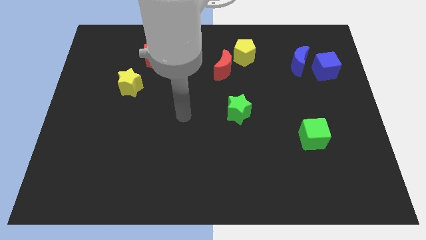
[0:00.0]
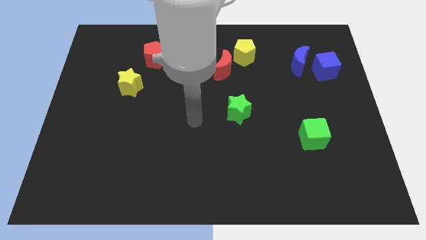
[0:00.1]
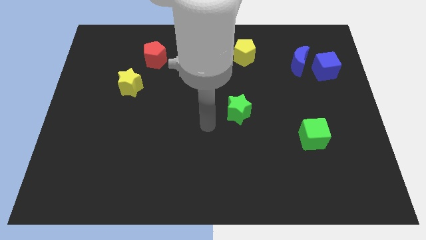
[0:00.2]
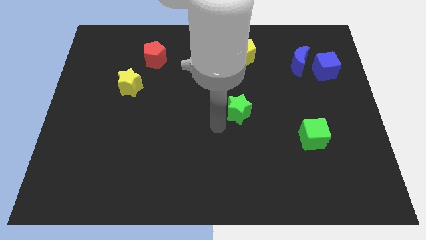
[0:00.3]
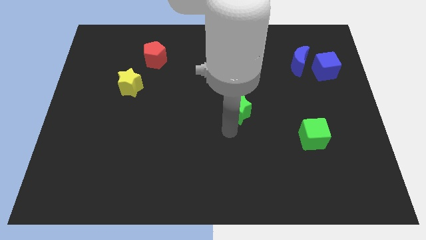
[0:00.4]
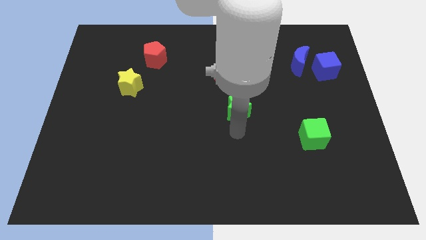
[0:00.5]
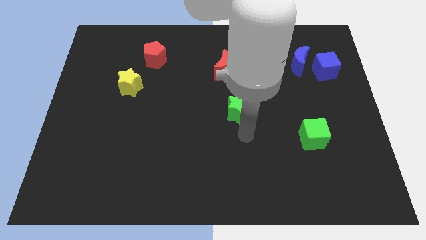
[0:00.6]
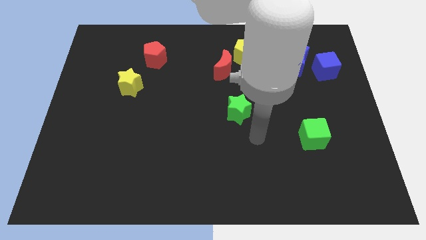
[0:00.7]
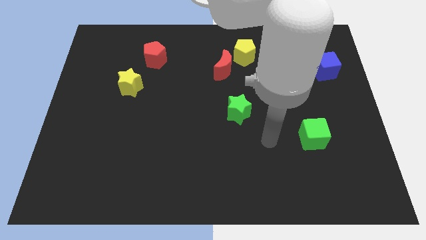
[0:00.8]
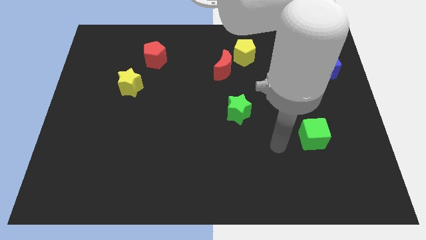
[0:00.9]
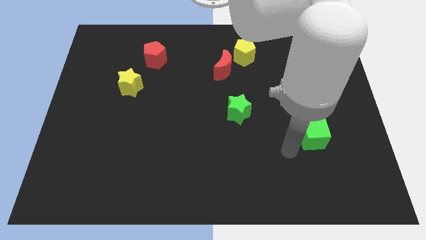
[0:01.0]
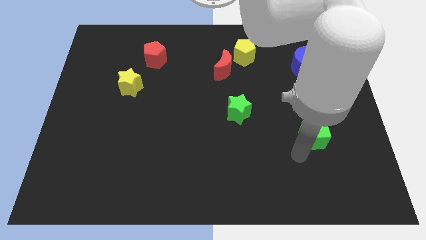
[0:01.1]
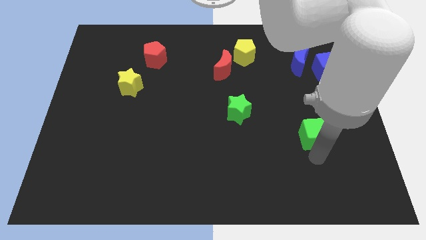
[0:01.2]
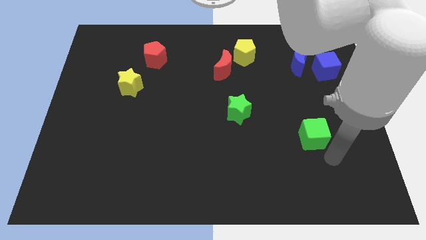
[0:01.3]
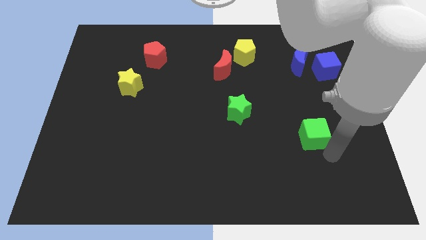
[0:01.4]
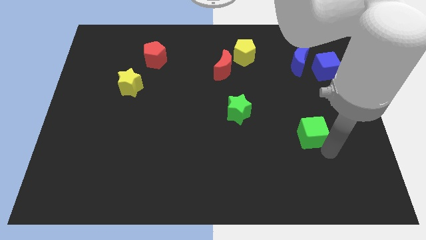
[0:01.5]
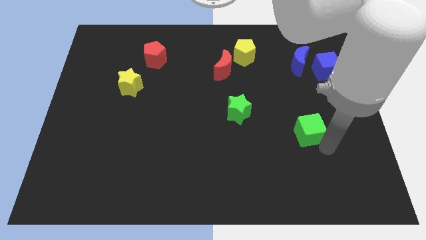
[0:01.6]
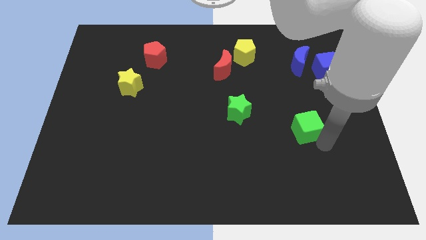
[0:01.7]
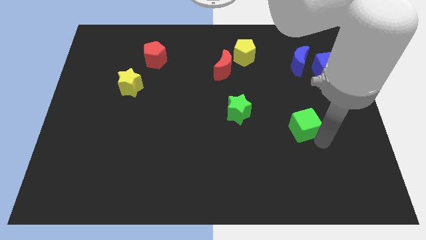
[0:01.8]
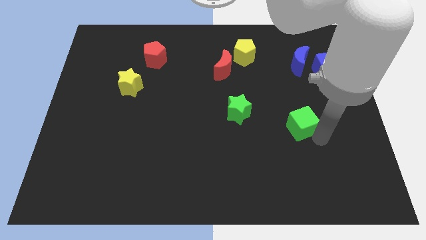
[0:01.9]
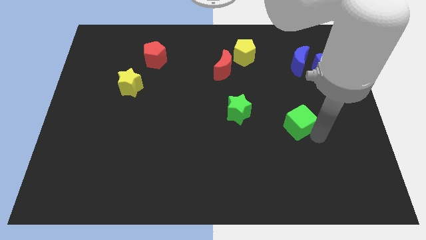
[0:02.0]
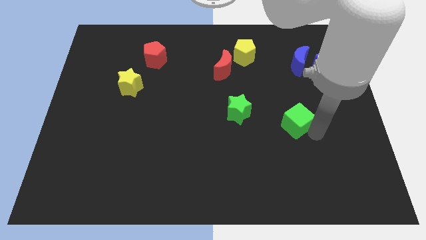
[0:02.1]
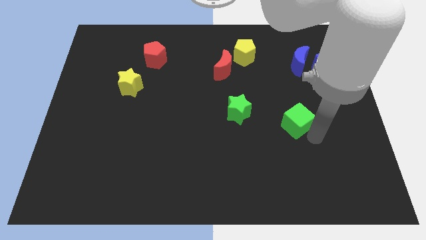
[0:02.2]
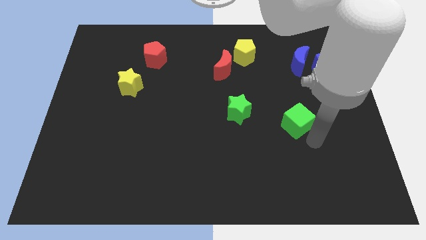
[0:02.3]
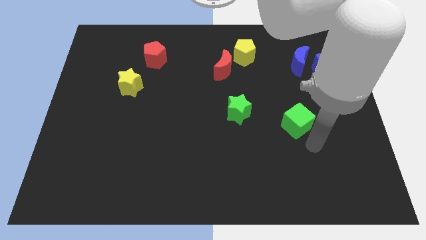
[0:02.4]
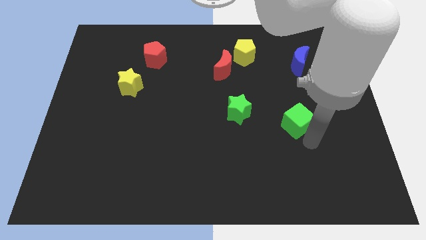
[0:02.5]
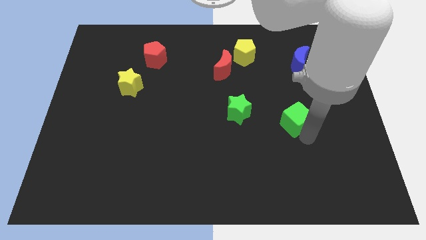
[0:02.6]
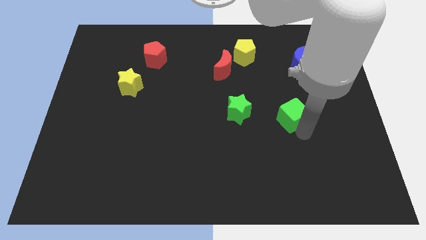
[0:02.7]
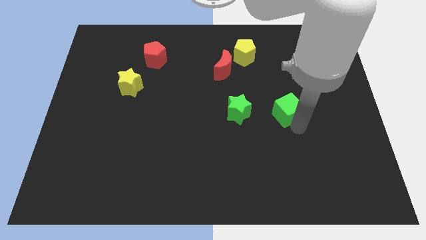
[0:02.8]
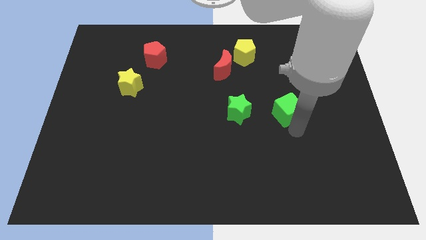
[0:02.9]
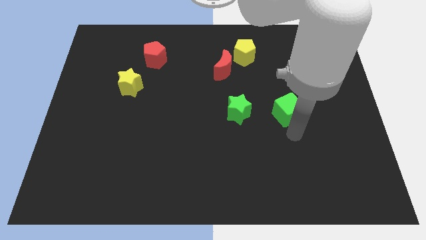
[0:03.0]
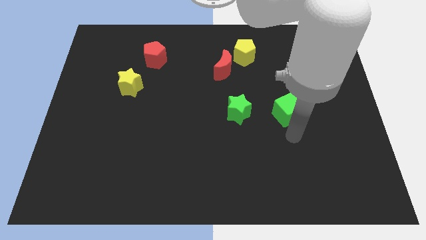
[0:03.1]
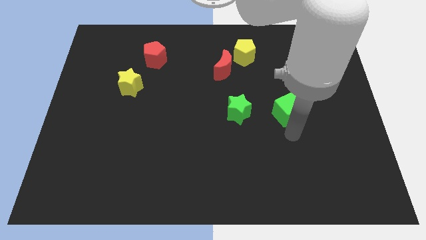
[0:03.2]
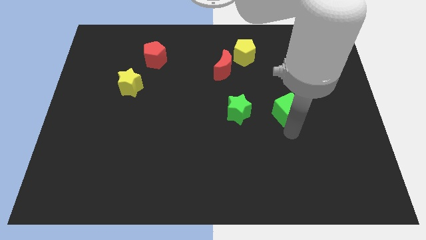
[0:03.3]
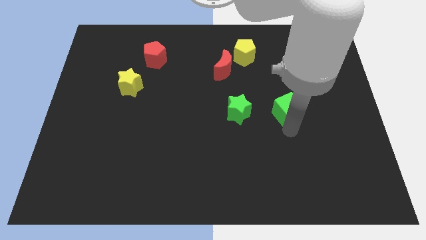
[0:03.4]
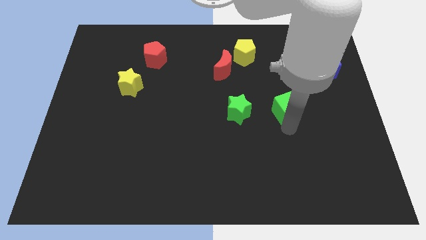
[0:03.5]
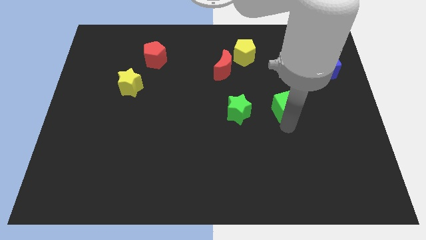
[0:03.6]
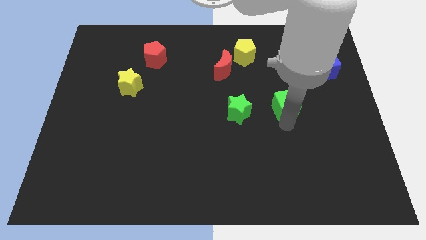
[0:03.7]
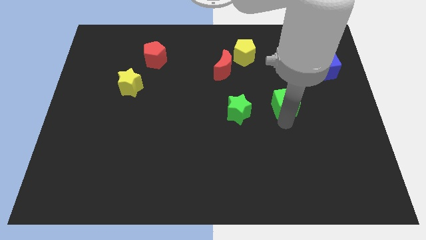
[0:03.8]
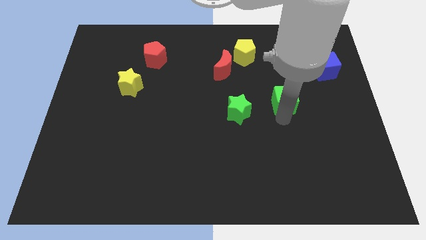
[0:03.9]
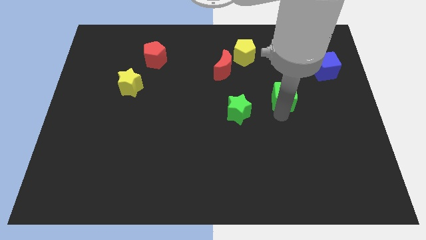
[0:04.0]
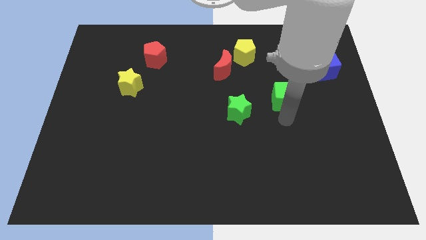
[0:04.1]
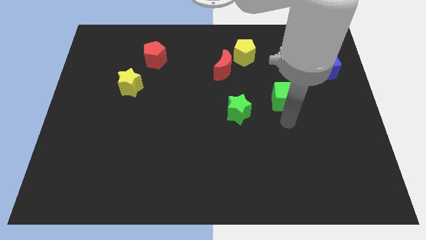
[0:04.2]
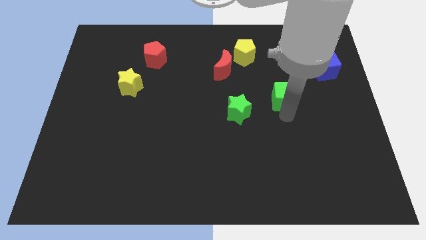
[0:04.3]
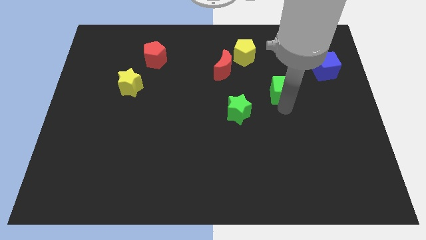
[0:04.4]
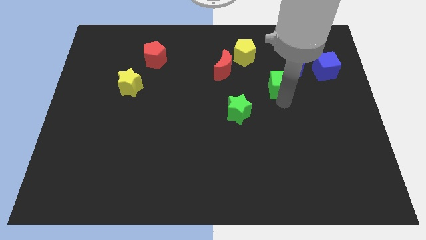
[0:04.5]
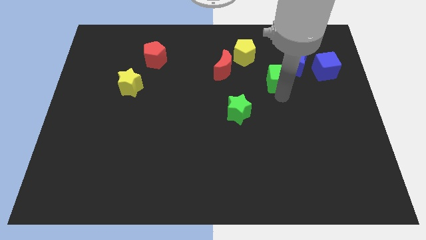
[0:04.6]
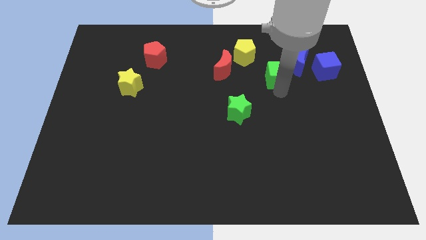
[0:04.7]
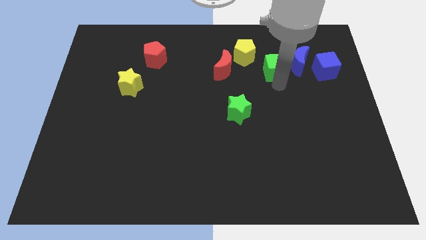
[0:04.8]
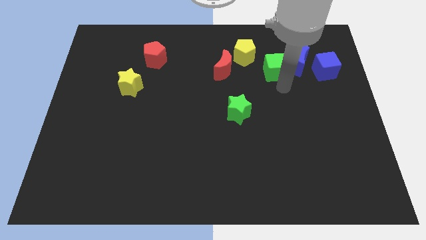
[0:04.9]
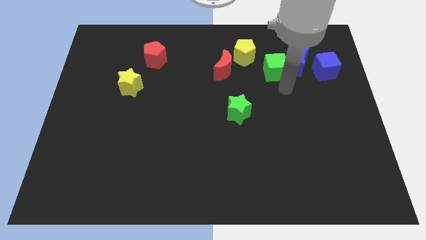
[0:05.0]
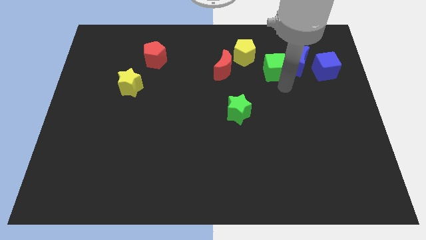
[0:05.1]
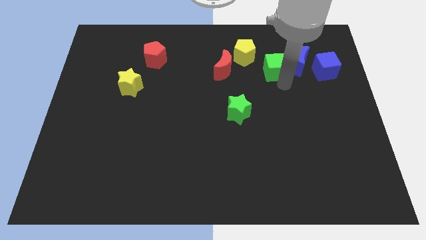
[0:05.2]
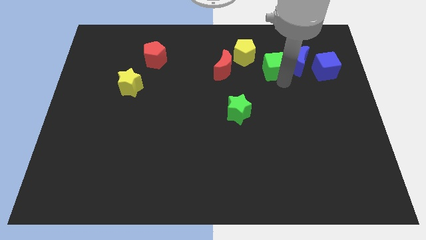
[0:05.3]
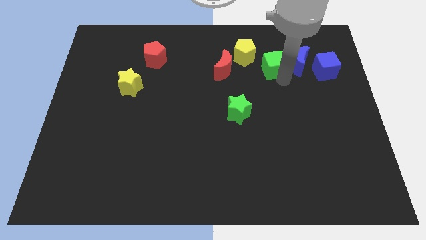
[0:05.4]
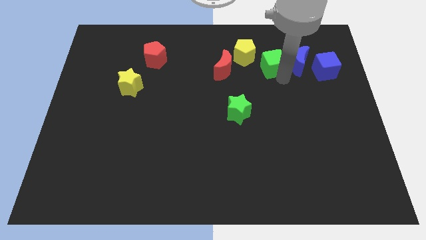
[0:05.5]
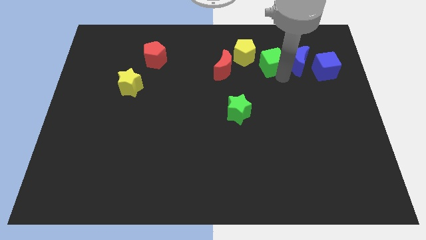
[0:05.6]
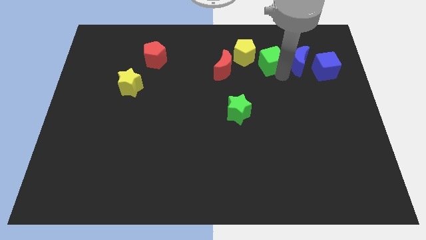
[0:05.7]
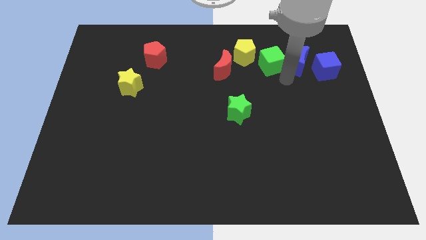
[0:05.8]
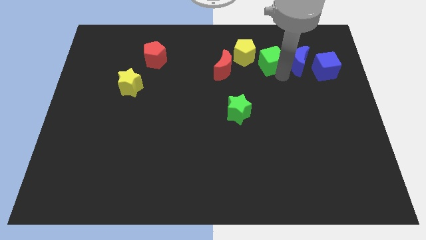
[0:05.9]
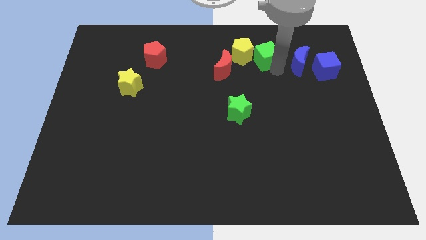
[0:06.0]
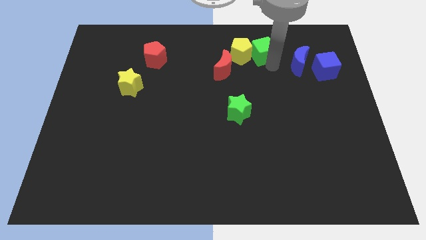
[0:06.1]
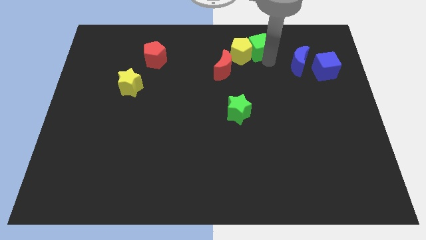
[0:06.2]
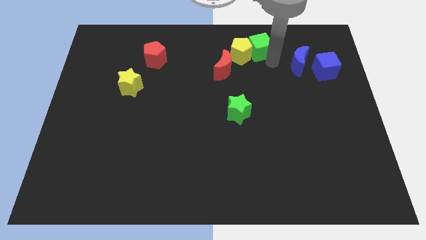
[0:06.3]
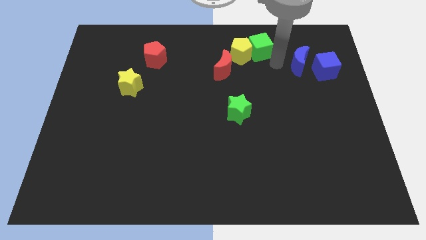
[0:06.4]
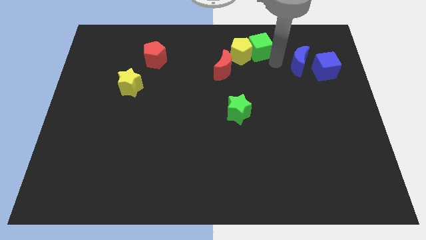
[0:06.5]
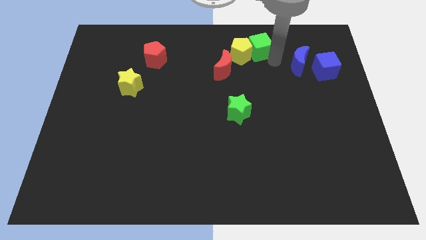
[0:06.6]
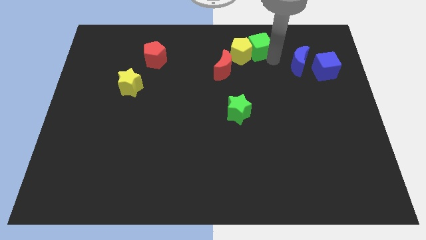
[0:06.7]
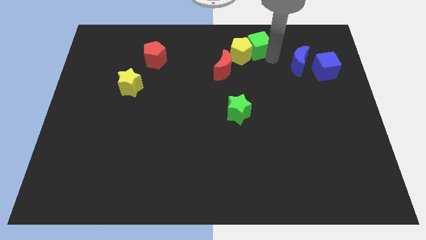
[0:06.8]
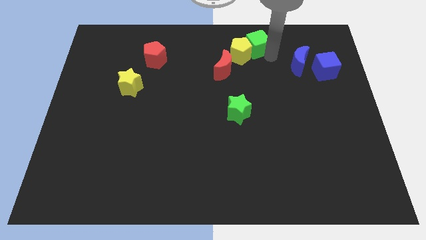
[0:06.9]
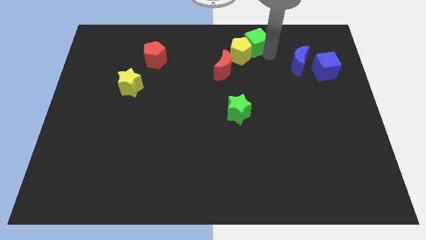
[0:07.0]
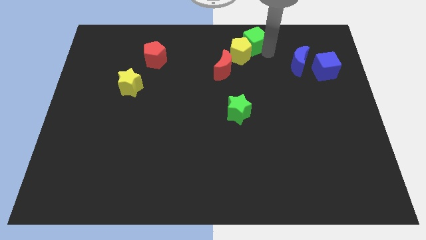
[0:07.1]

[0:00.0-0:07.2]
slide the green cube to the top
